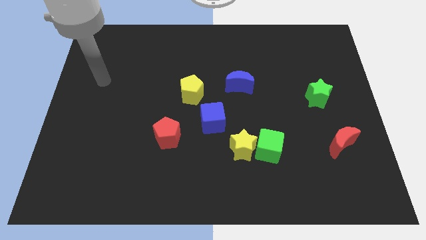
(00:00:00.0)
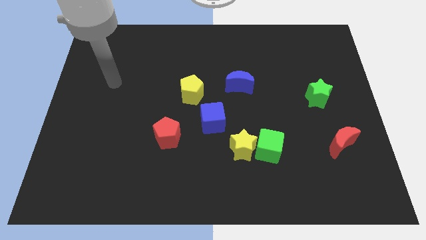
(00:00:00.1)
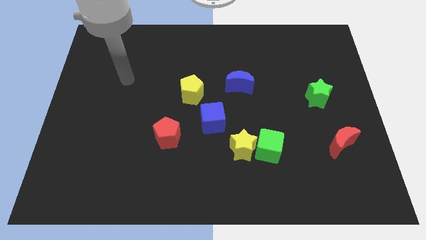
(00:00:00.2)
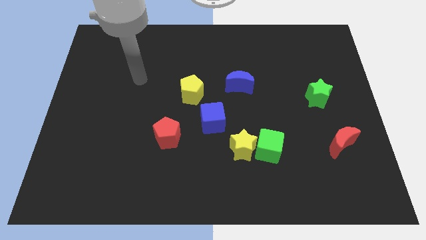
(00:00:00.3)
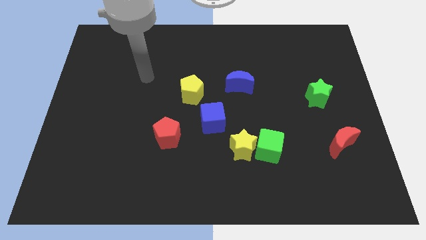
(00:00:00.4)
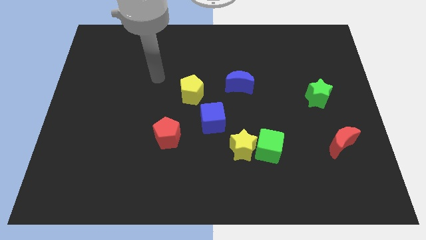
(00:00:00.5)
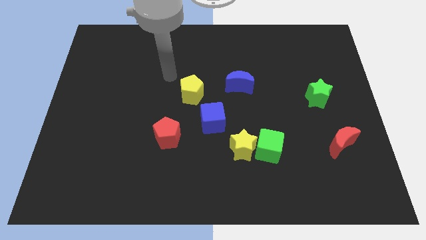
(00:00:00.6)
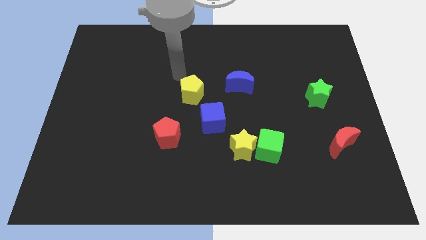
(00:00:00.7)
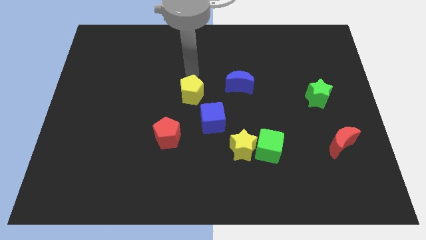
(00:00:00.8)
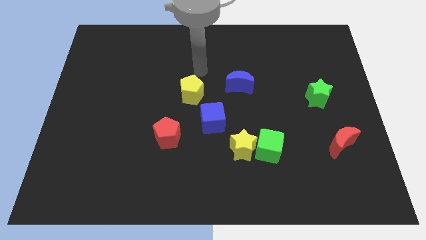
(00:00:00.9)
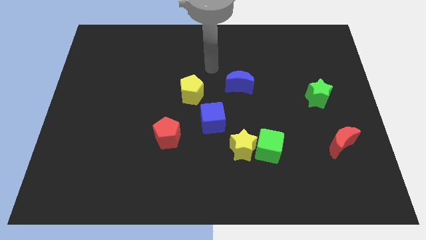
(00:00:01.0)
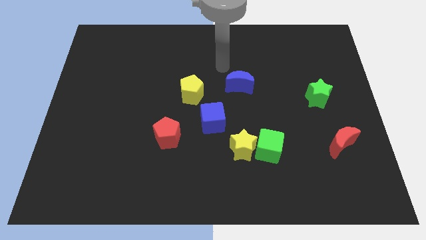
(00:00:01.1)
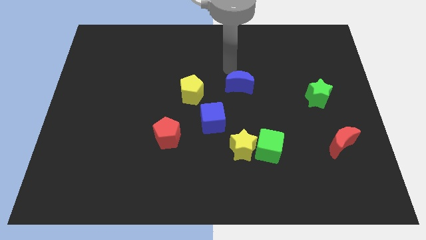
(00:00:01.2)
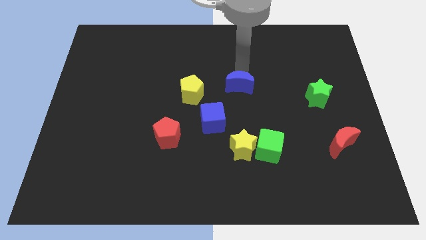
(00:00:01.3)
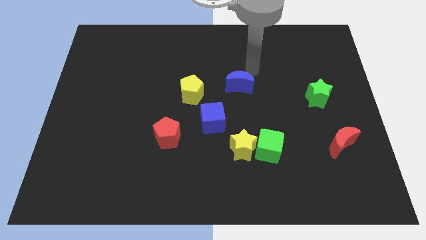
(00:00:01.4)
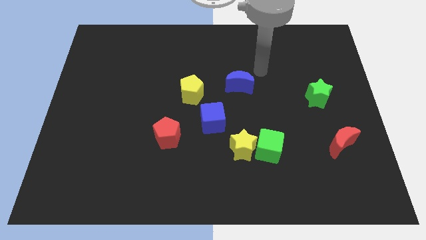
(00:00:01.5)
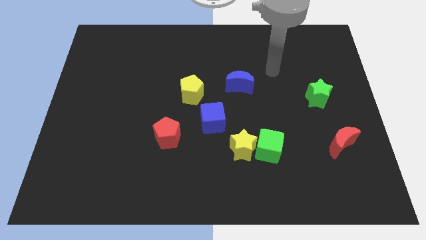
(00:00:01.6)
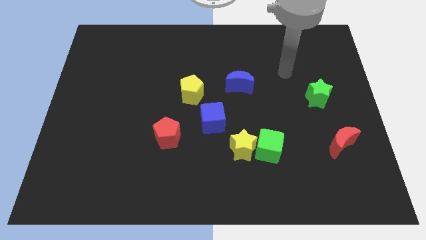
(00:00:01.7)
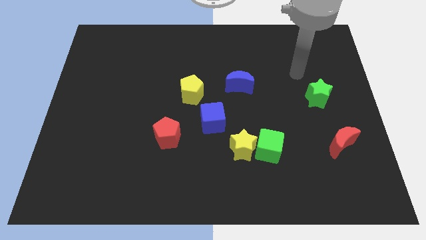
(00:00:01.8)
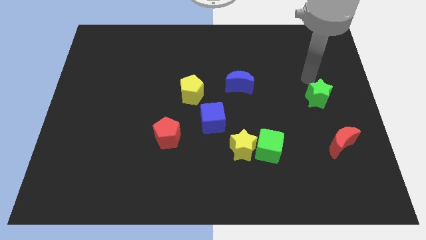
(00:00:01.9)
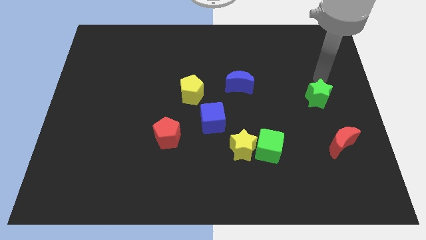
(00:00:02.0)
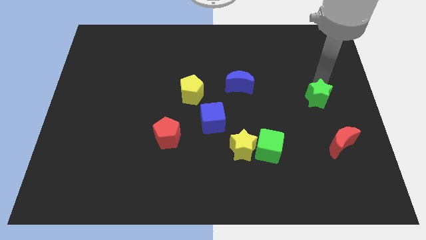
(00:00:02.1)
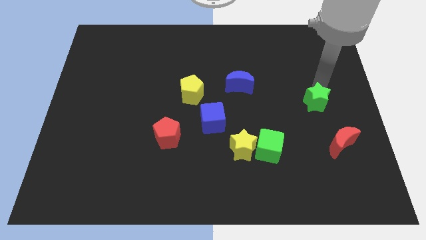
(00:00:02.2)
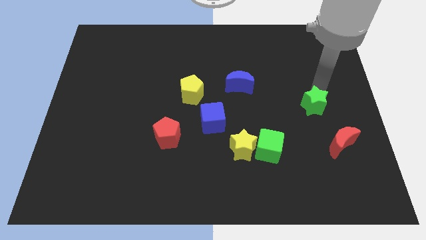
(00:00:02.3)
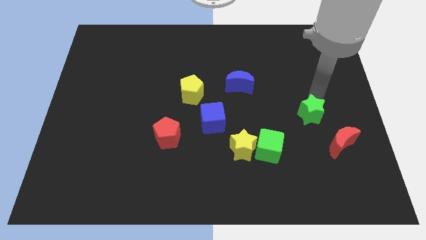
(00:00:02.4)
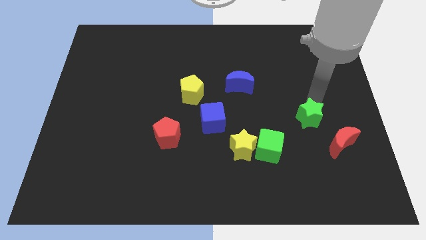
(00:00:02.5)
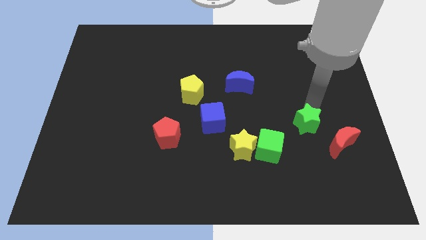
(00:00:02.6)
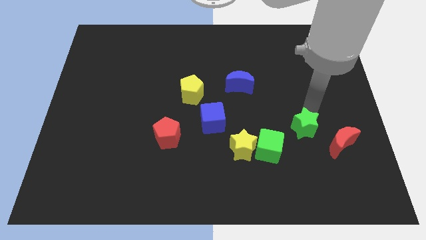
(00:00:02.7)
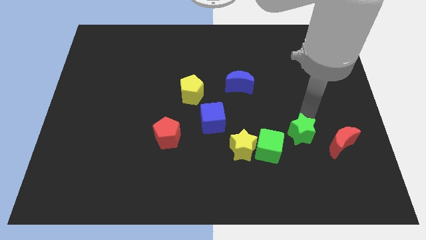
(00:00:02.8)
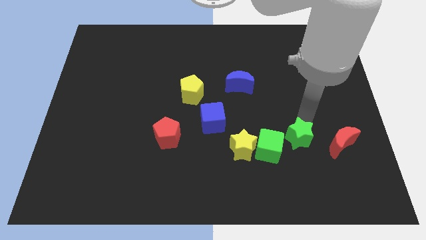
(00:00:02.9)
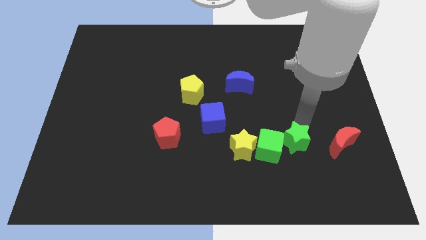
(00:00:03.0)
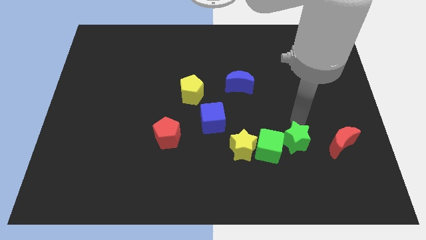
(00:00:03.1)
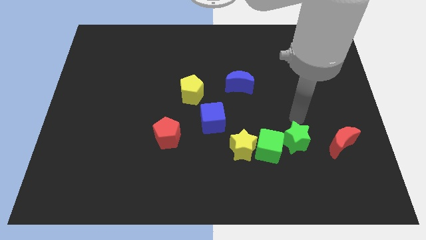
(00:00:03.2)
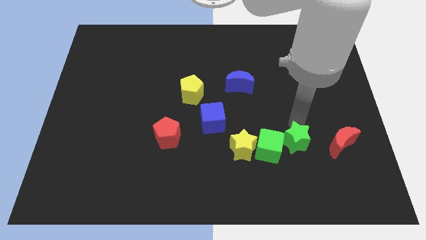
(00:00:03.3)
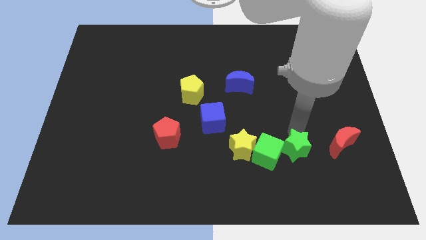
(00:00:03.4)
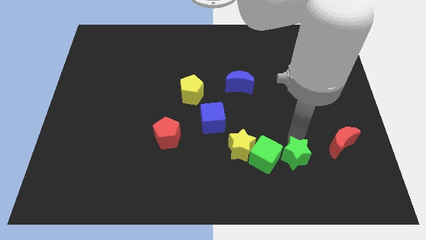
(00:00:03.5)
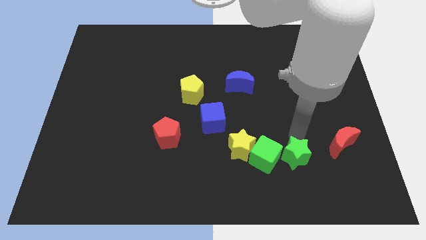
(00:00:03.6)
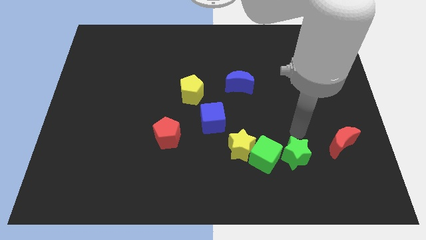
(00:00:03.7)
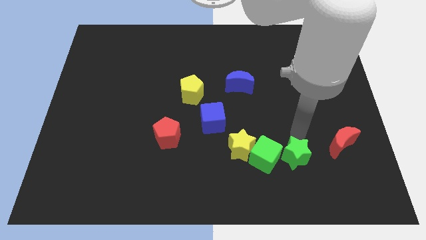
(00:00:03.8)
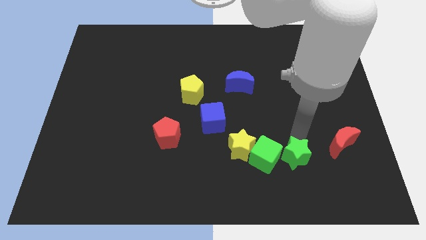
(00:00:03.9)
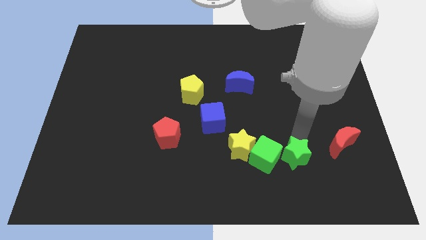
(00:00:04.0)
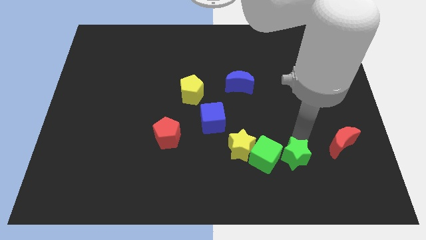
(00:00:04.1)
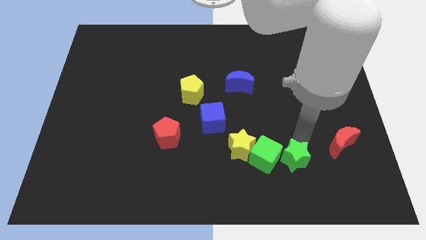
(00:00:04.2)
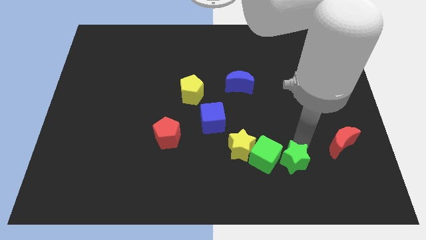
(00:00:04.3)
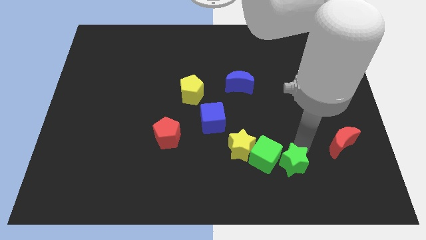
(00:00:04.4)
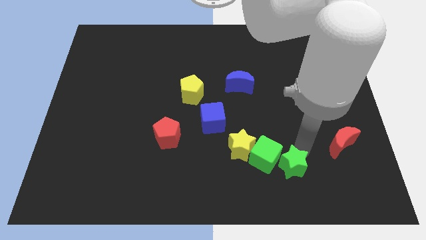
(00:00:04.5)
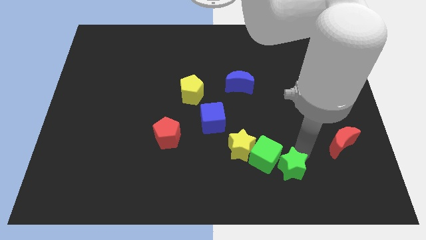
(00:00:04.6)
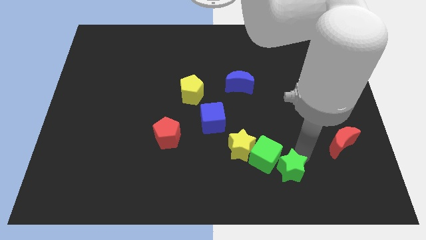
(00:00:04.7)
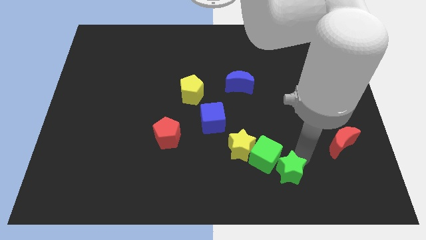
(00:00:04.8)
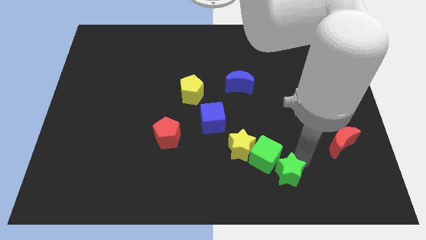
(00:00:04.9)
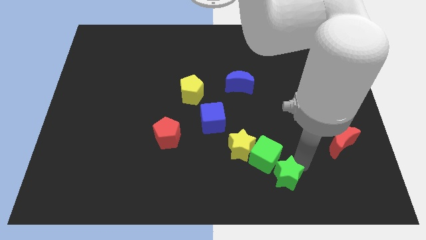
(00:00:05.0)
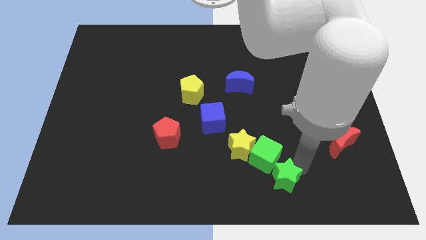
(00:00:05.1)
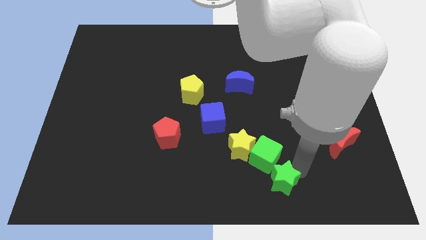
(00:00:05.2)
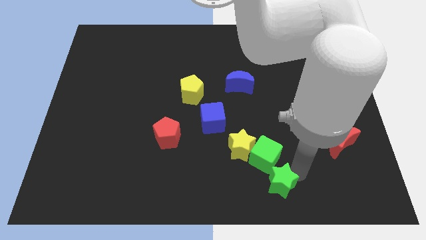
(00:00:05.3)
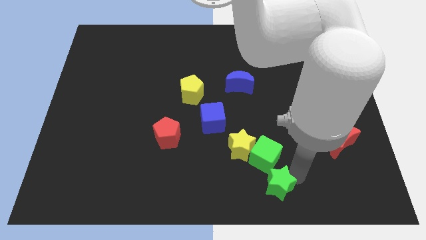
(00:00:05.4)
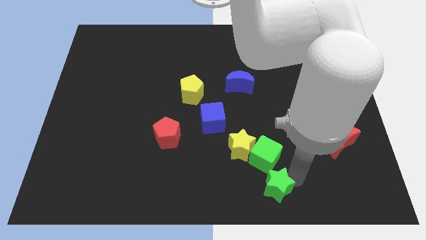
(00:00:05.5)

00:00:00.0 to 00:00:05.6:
push the green star to the bottom

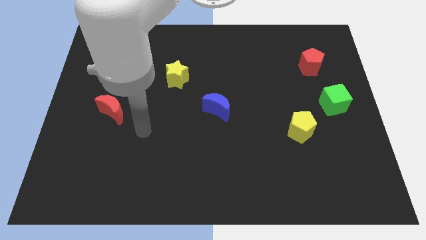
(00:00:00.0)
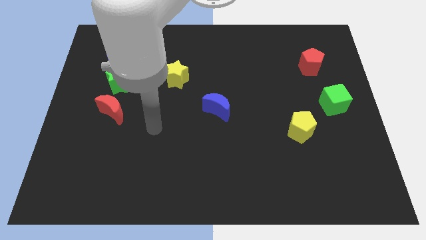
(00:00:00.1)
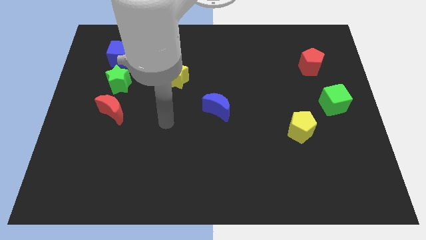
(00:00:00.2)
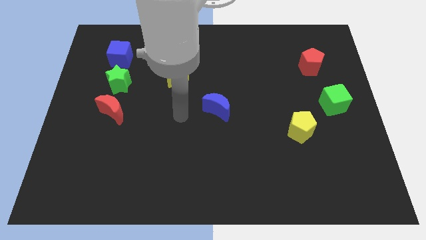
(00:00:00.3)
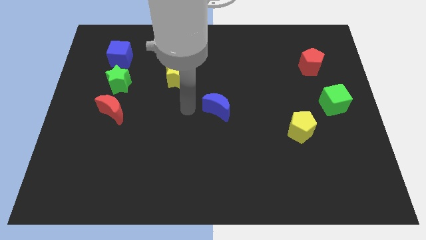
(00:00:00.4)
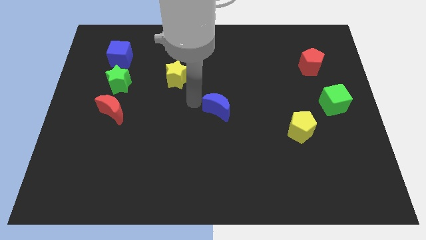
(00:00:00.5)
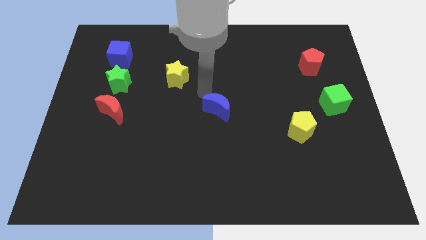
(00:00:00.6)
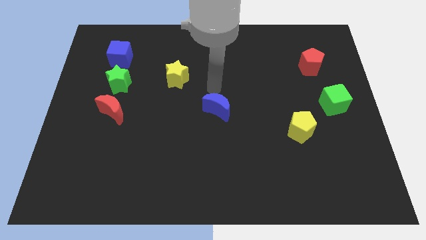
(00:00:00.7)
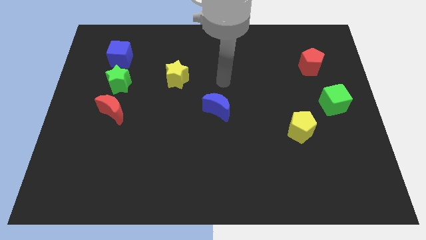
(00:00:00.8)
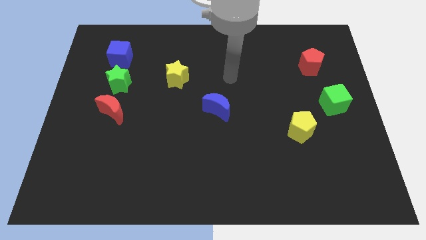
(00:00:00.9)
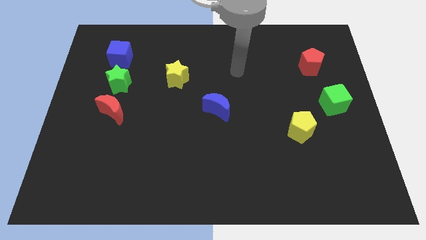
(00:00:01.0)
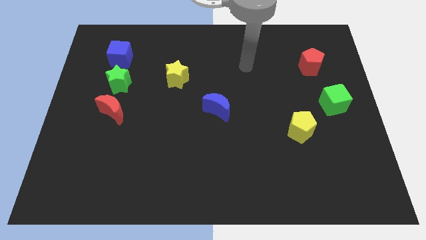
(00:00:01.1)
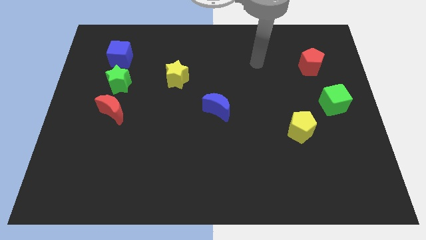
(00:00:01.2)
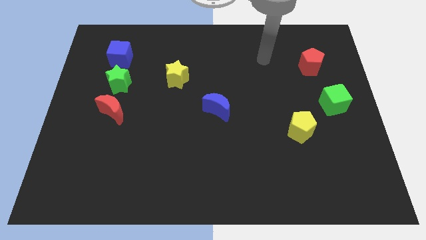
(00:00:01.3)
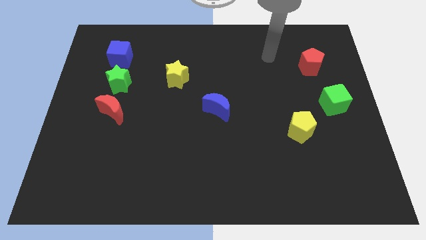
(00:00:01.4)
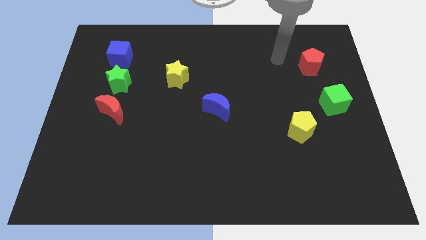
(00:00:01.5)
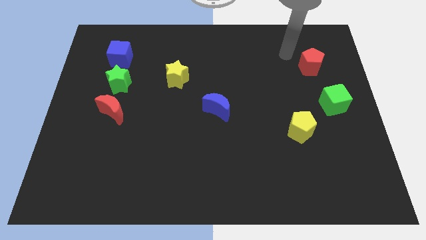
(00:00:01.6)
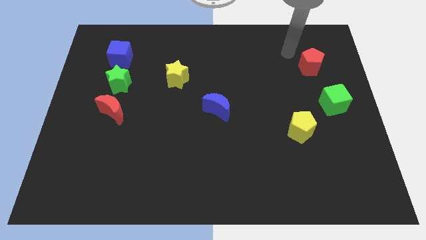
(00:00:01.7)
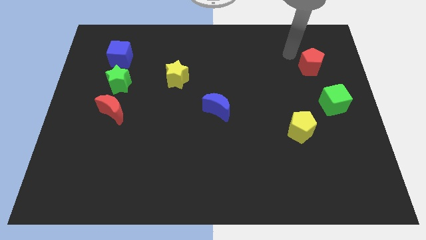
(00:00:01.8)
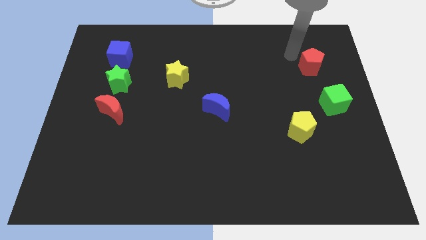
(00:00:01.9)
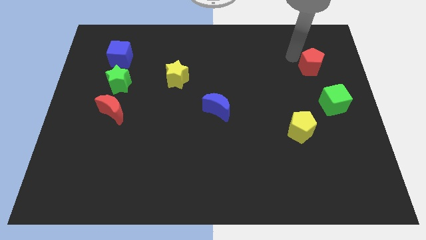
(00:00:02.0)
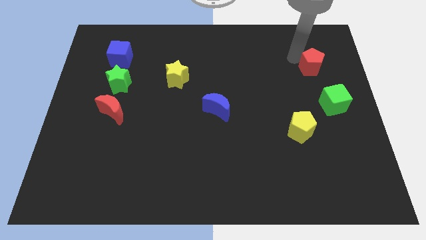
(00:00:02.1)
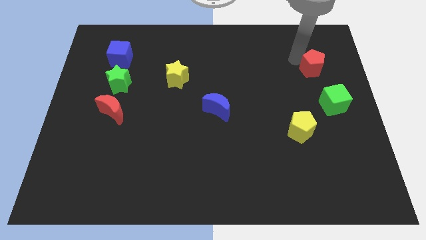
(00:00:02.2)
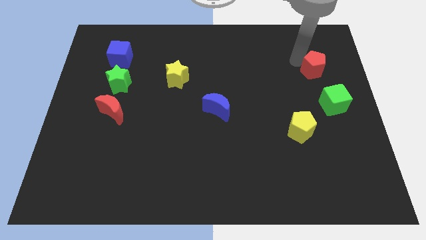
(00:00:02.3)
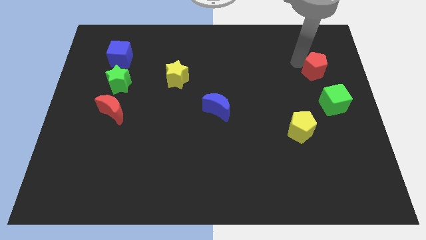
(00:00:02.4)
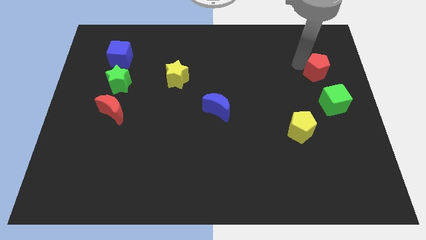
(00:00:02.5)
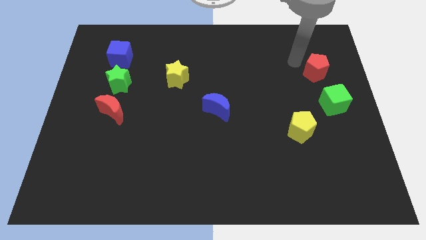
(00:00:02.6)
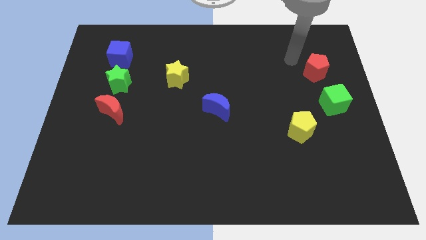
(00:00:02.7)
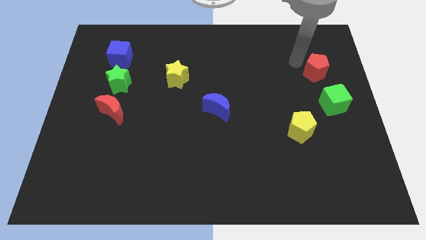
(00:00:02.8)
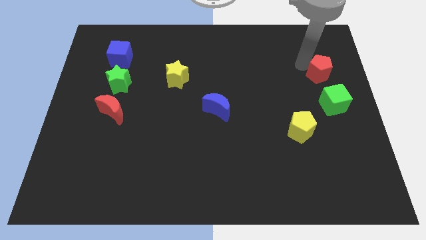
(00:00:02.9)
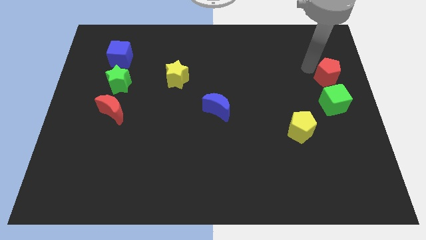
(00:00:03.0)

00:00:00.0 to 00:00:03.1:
push the red pentagon to the center right
